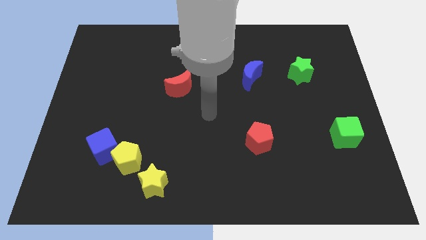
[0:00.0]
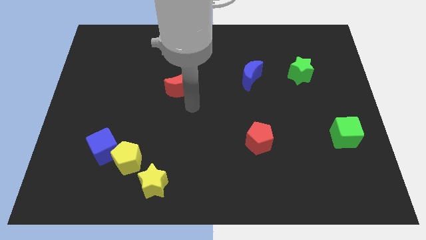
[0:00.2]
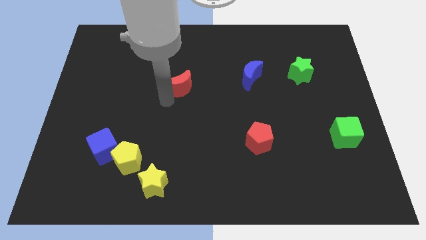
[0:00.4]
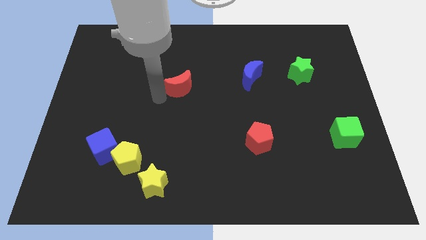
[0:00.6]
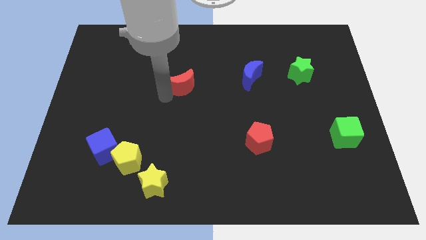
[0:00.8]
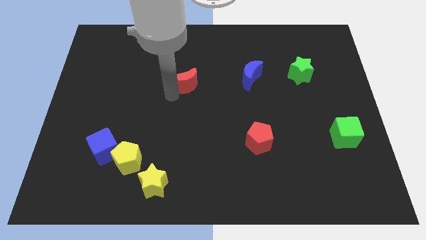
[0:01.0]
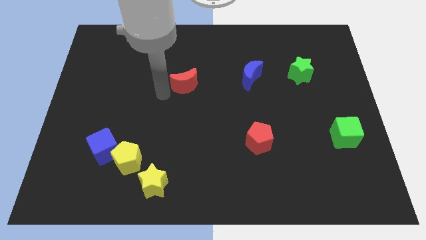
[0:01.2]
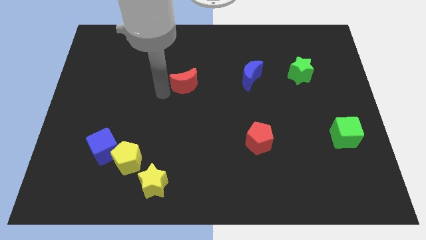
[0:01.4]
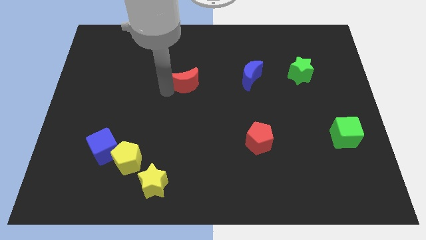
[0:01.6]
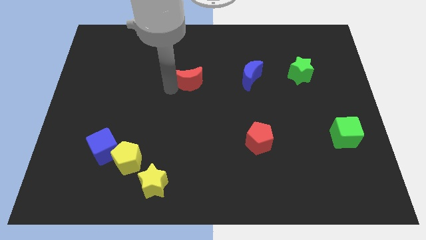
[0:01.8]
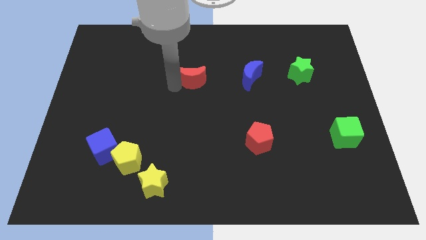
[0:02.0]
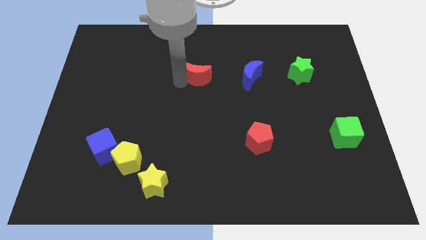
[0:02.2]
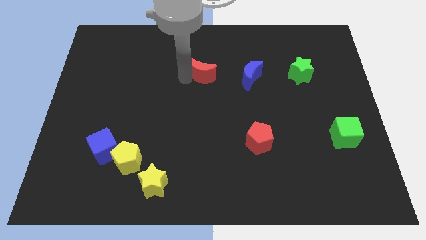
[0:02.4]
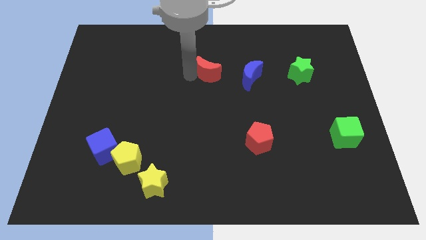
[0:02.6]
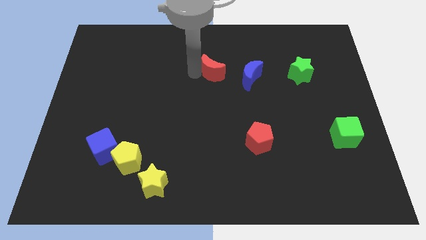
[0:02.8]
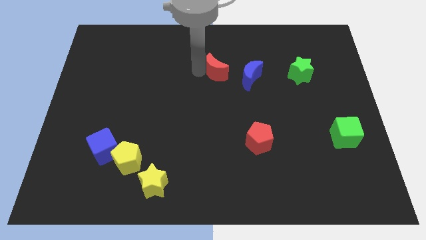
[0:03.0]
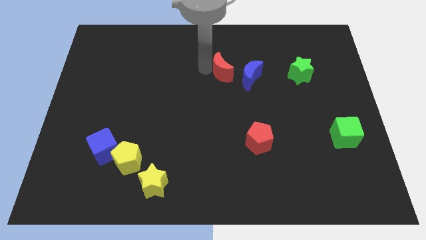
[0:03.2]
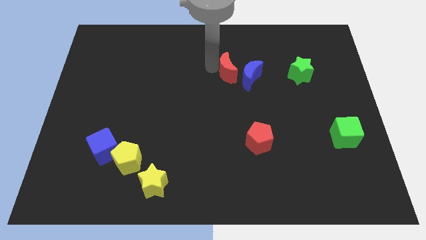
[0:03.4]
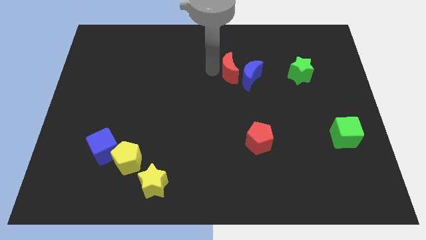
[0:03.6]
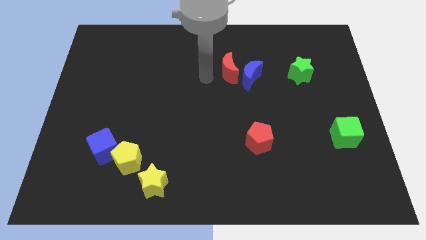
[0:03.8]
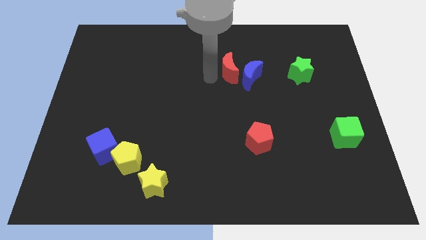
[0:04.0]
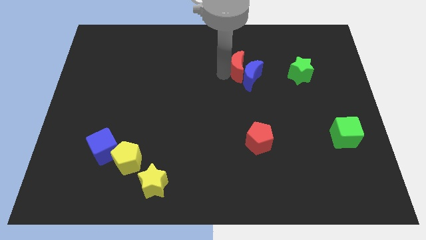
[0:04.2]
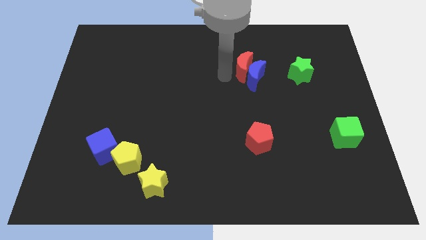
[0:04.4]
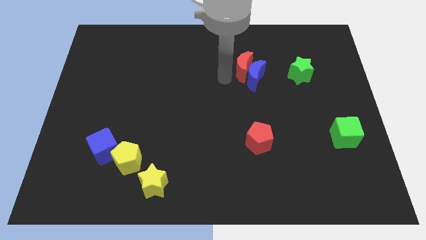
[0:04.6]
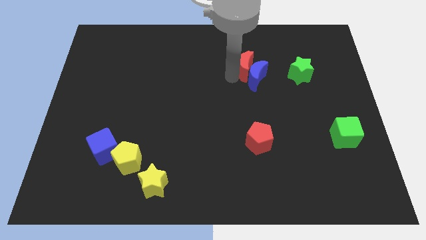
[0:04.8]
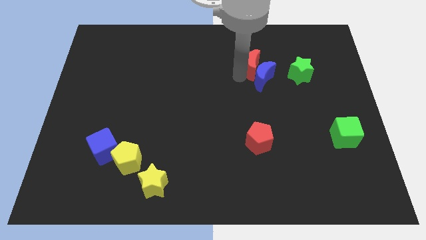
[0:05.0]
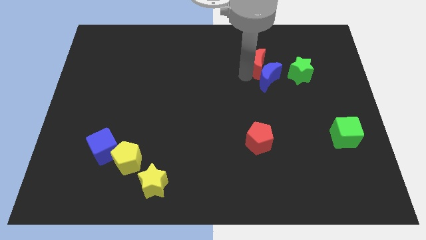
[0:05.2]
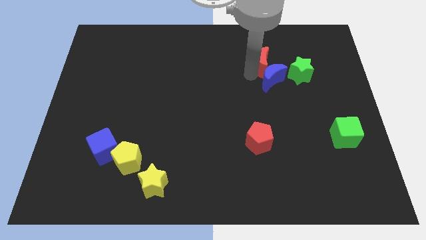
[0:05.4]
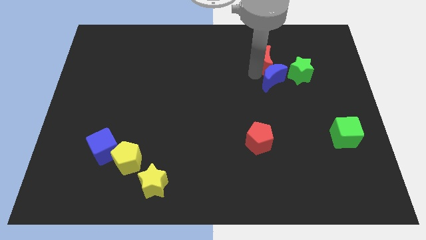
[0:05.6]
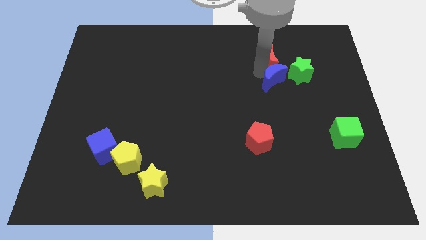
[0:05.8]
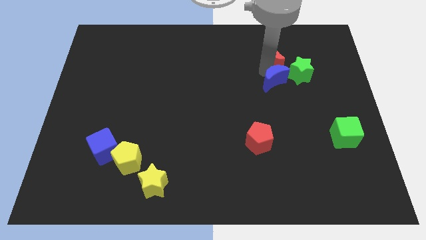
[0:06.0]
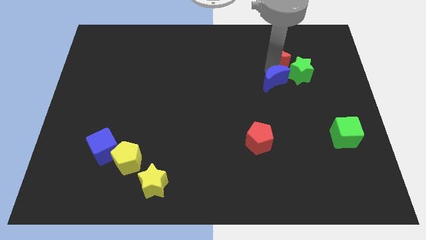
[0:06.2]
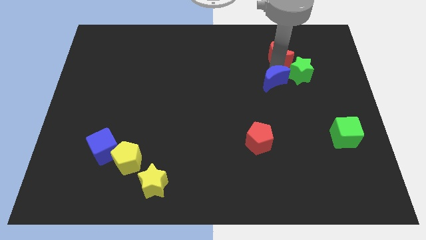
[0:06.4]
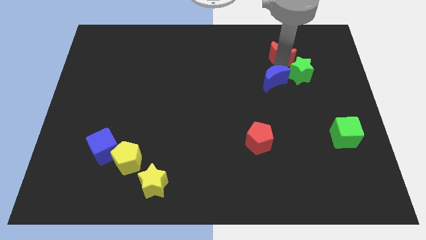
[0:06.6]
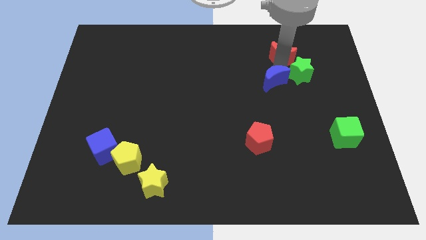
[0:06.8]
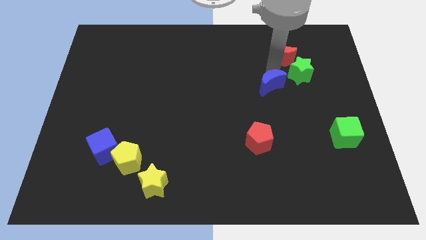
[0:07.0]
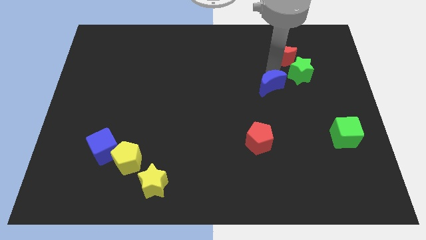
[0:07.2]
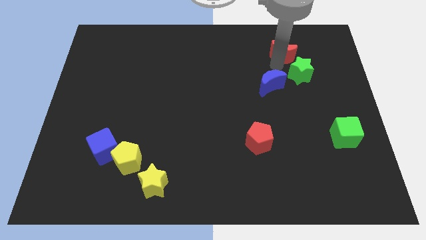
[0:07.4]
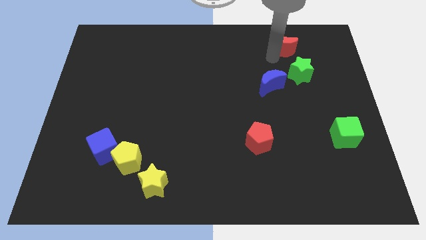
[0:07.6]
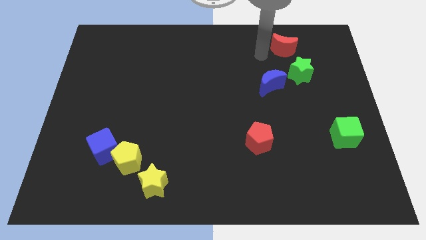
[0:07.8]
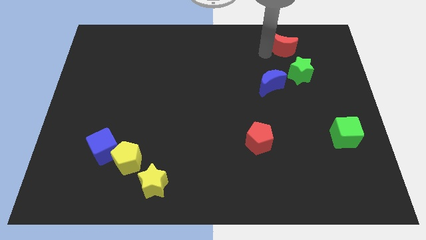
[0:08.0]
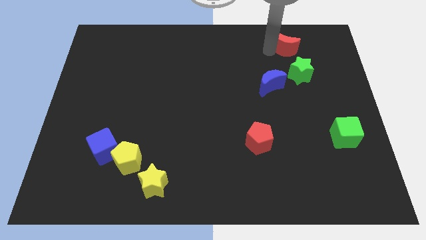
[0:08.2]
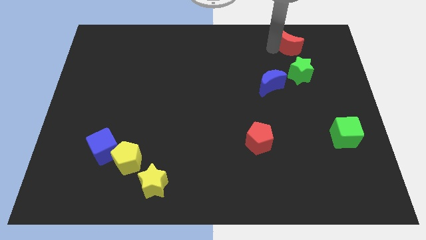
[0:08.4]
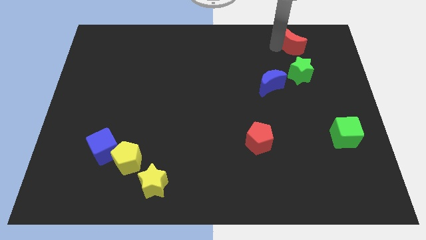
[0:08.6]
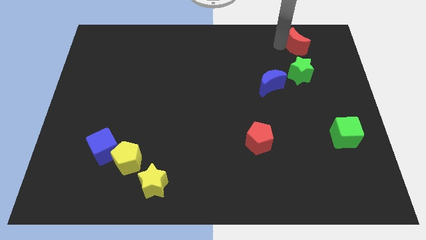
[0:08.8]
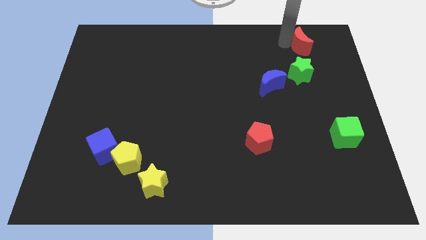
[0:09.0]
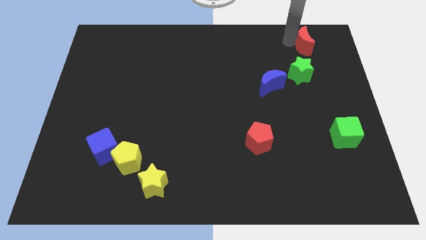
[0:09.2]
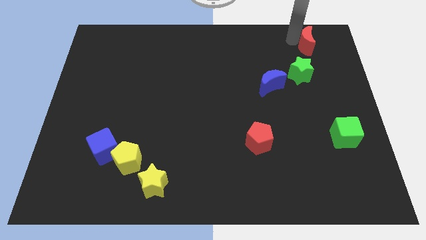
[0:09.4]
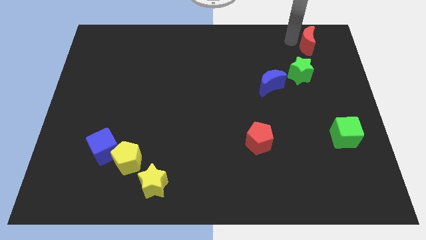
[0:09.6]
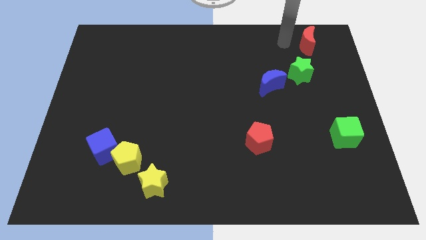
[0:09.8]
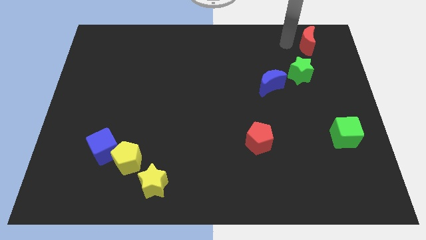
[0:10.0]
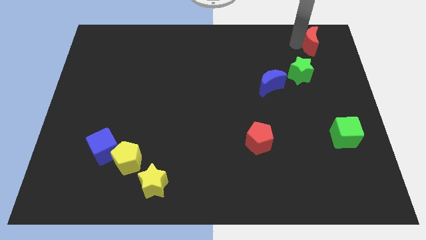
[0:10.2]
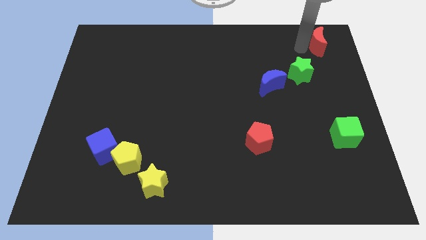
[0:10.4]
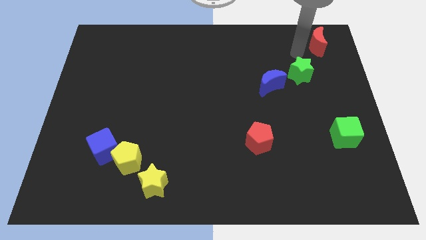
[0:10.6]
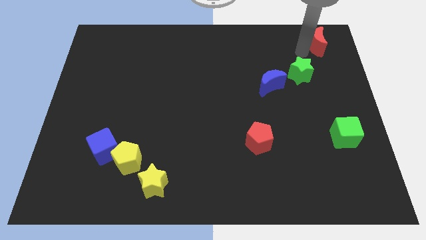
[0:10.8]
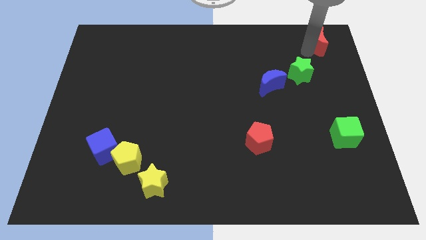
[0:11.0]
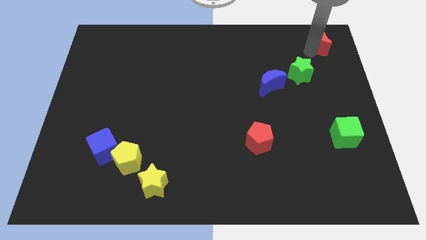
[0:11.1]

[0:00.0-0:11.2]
slide the red moon to the upper right corner
